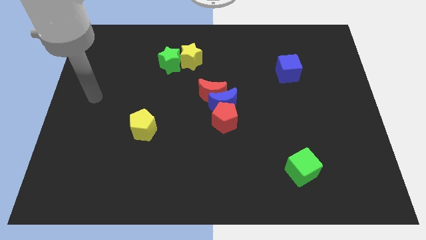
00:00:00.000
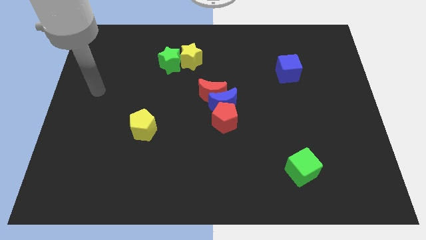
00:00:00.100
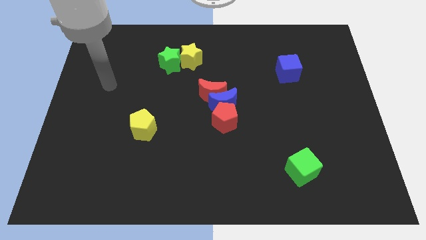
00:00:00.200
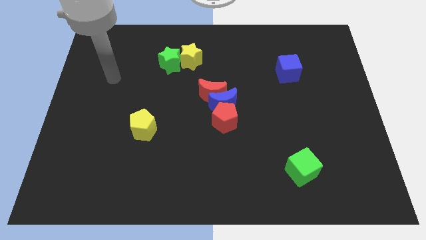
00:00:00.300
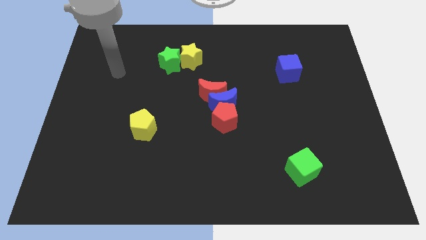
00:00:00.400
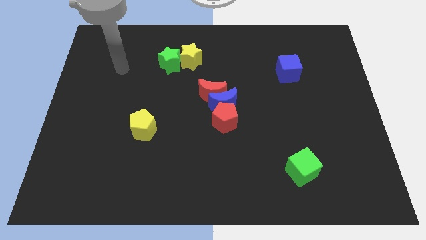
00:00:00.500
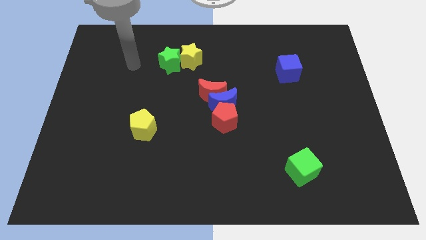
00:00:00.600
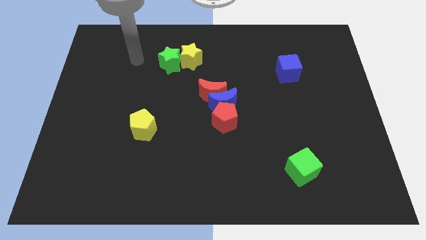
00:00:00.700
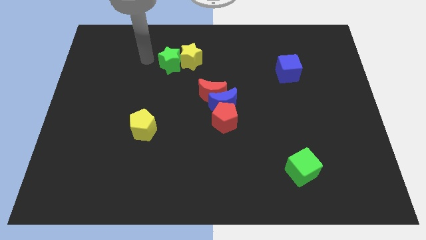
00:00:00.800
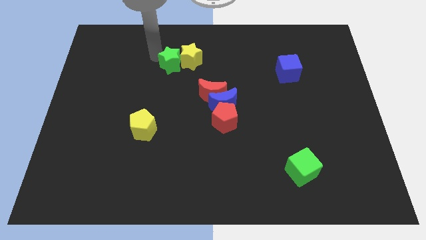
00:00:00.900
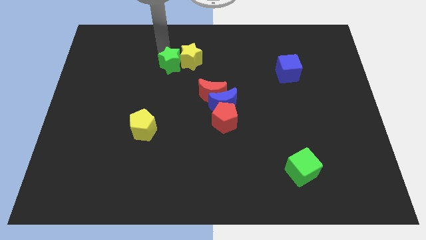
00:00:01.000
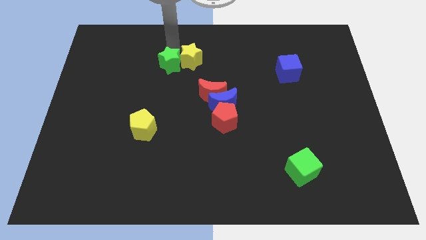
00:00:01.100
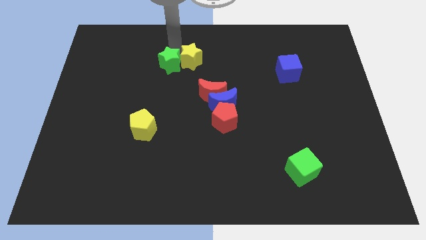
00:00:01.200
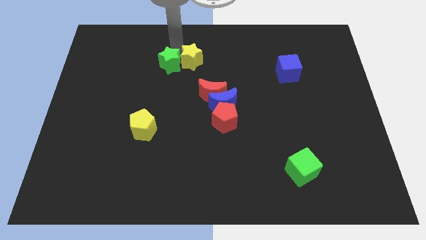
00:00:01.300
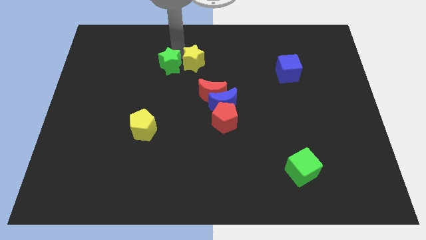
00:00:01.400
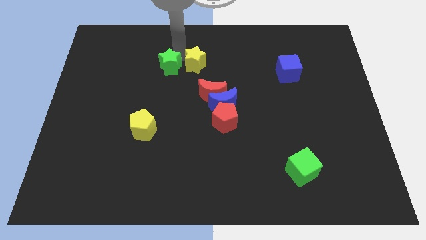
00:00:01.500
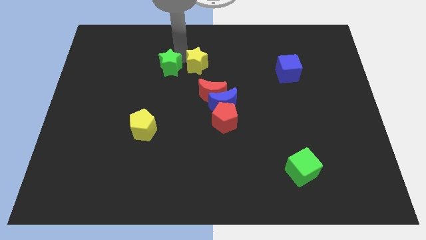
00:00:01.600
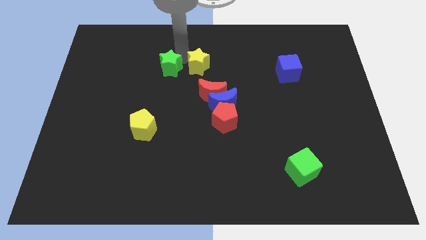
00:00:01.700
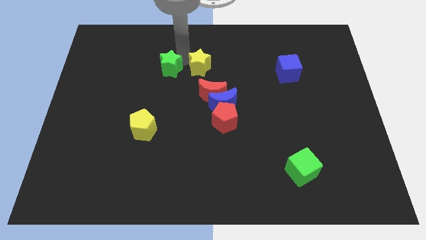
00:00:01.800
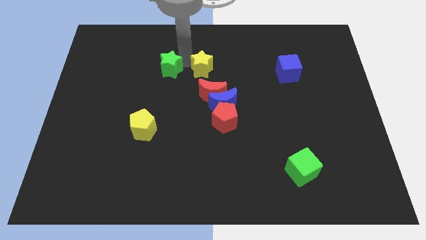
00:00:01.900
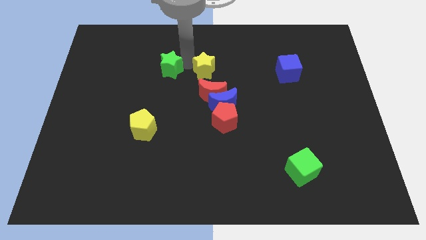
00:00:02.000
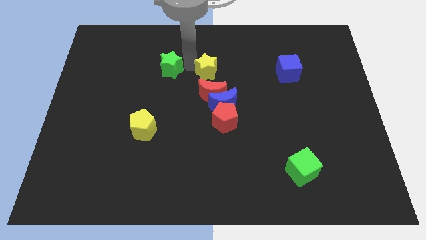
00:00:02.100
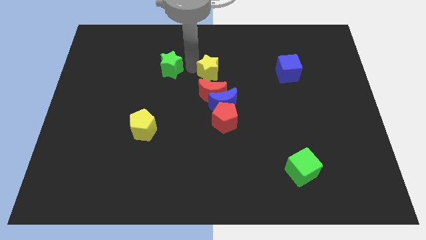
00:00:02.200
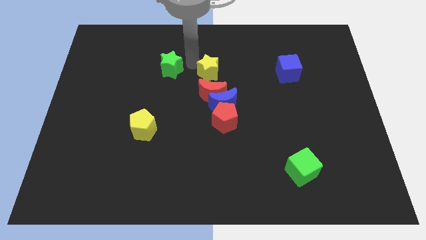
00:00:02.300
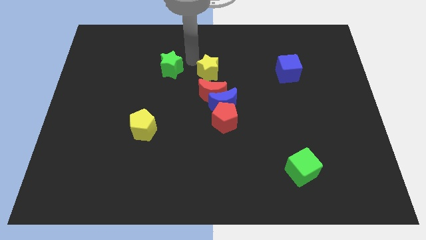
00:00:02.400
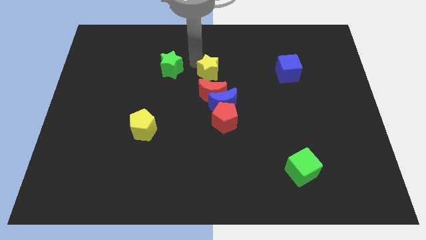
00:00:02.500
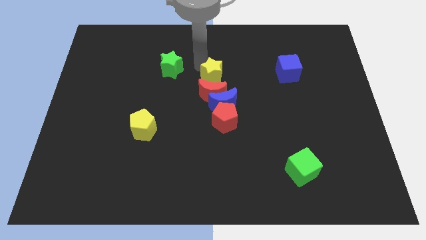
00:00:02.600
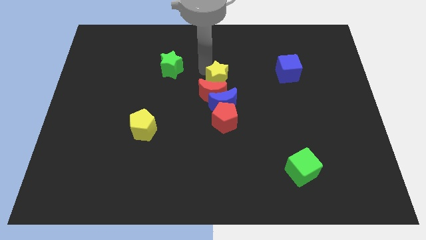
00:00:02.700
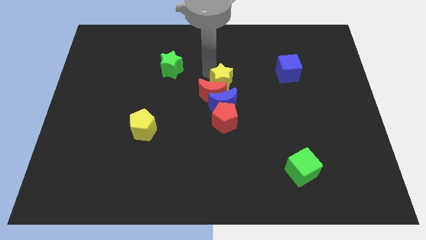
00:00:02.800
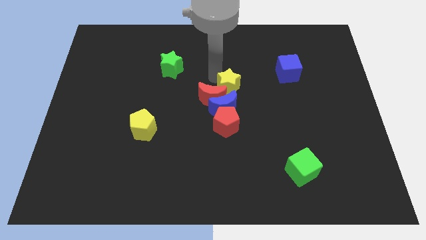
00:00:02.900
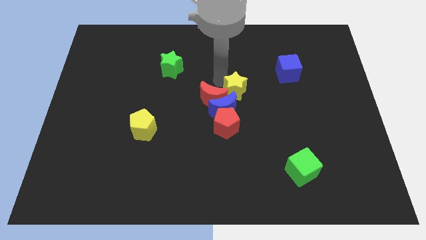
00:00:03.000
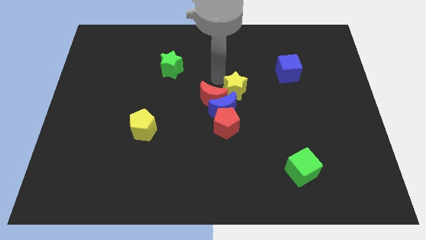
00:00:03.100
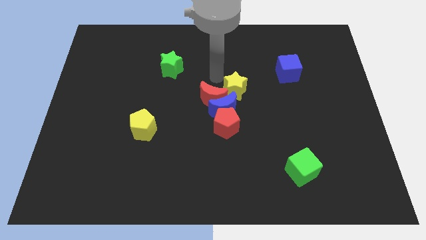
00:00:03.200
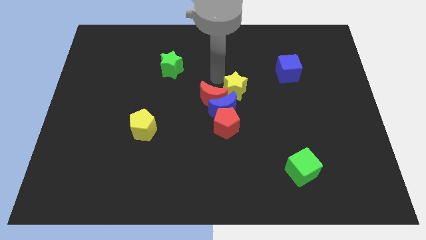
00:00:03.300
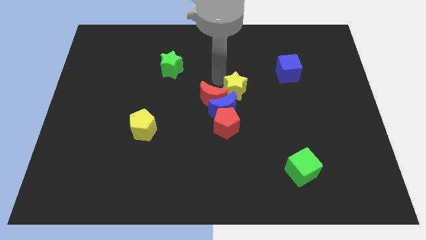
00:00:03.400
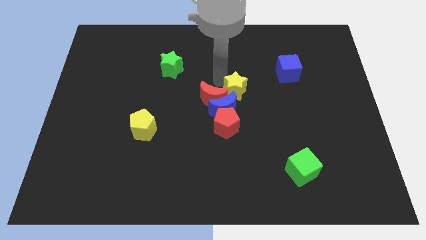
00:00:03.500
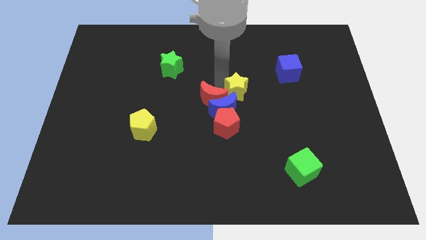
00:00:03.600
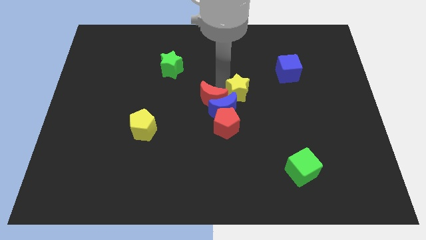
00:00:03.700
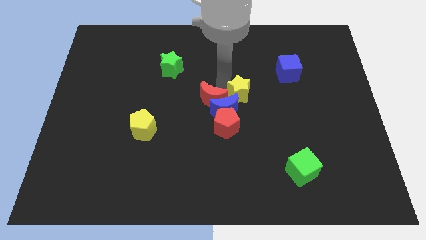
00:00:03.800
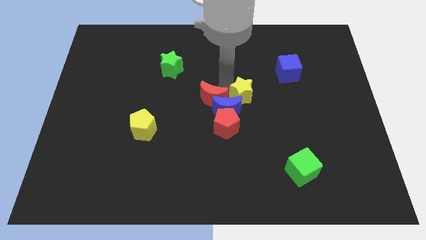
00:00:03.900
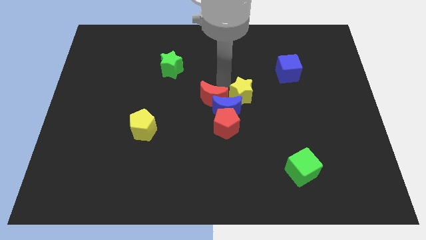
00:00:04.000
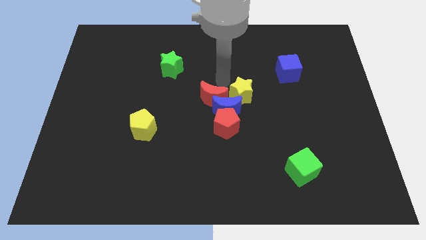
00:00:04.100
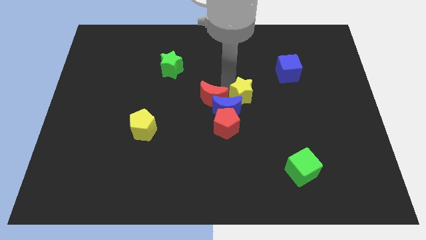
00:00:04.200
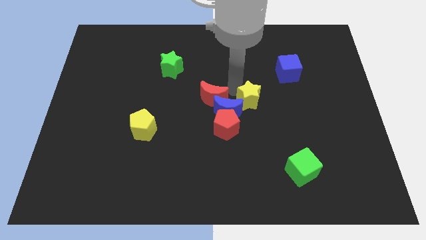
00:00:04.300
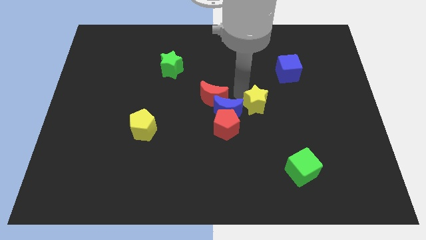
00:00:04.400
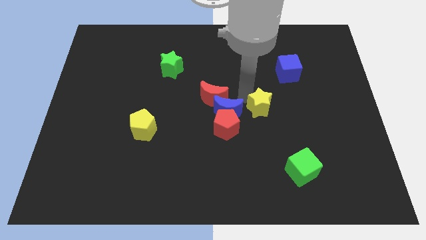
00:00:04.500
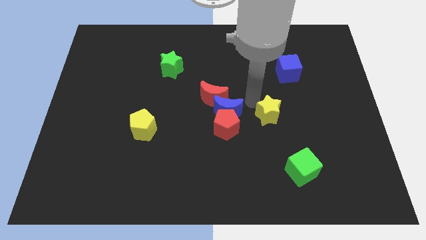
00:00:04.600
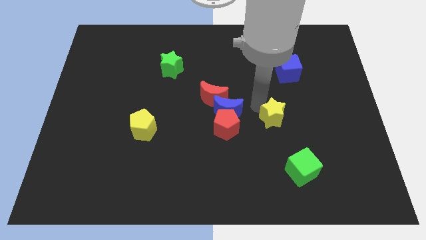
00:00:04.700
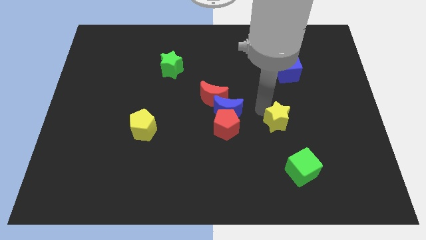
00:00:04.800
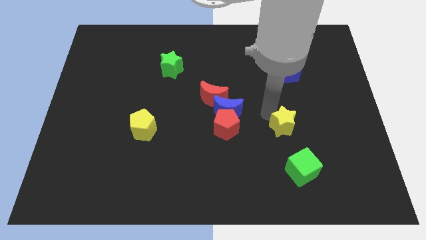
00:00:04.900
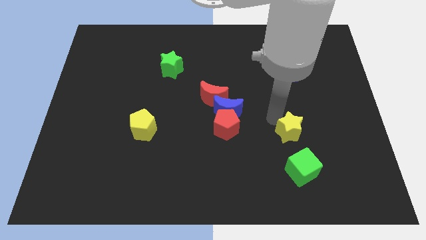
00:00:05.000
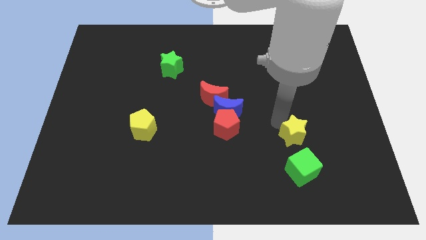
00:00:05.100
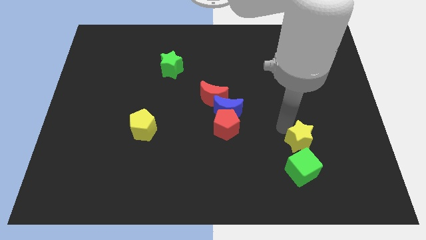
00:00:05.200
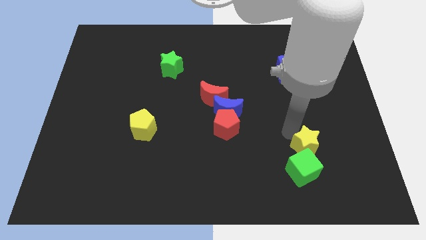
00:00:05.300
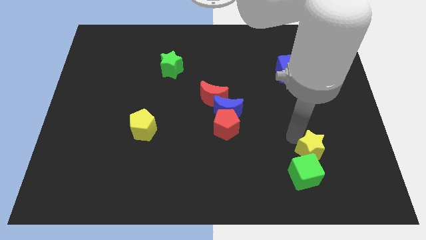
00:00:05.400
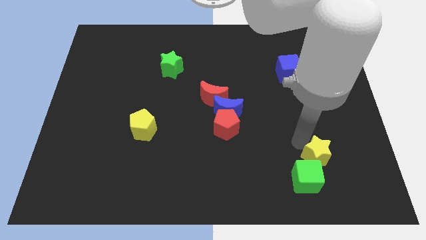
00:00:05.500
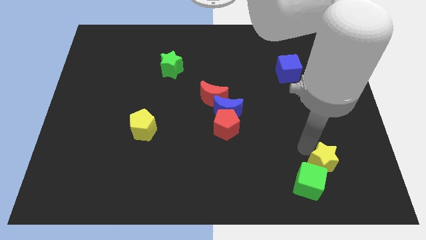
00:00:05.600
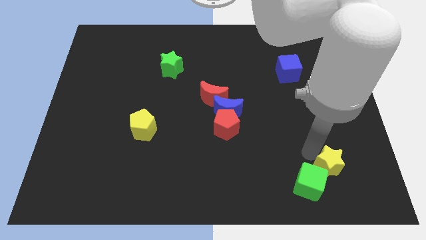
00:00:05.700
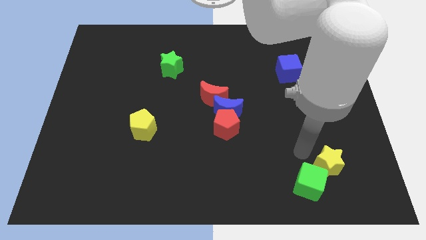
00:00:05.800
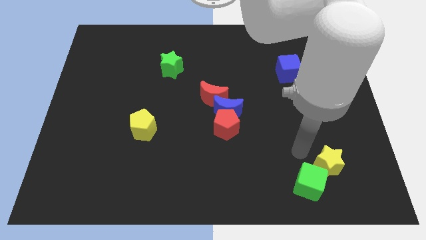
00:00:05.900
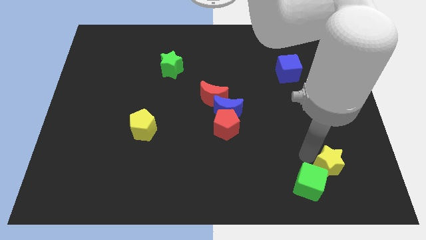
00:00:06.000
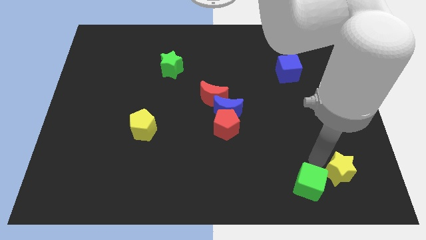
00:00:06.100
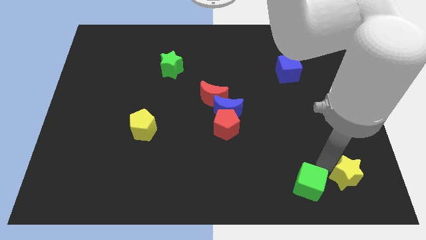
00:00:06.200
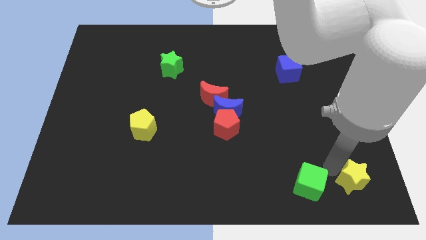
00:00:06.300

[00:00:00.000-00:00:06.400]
put the yellow star to the bottom right of the board
